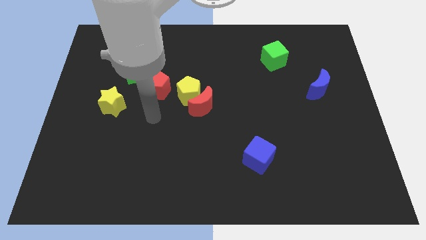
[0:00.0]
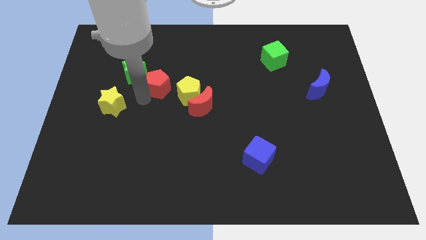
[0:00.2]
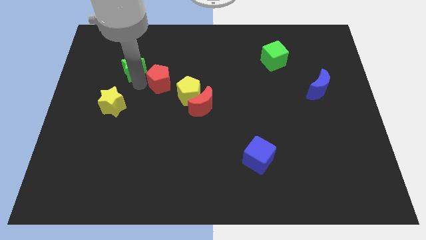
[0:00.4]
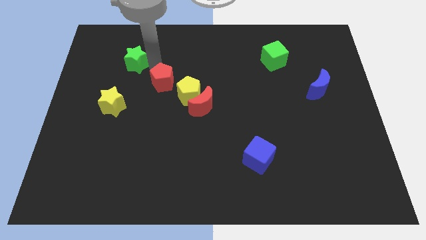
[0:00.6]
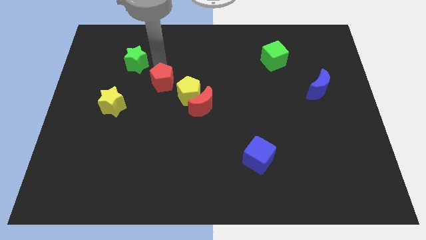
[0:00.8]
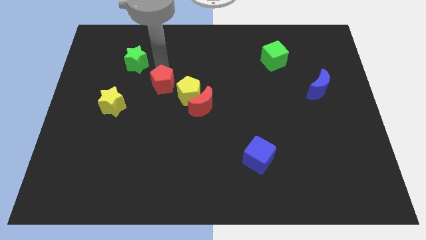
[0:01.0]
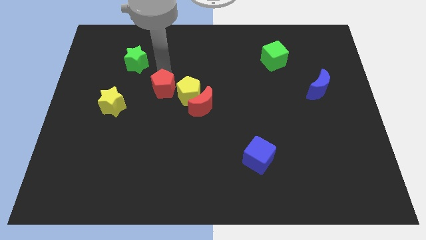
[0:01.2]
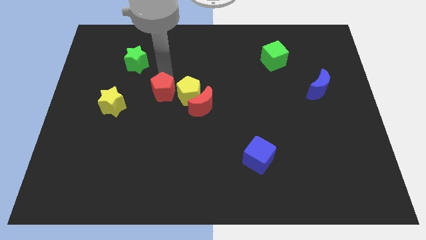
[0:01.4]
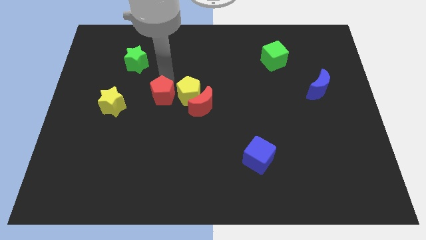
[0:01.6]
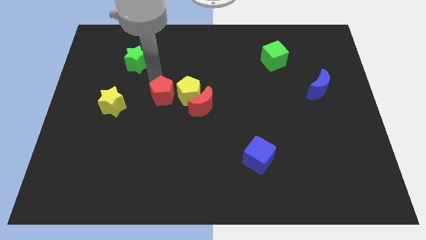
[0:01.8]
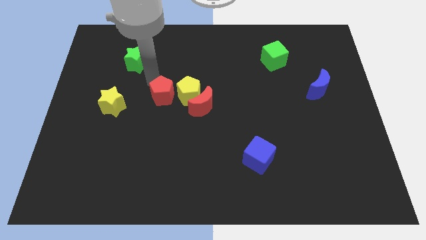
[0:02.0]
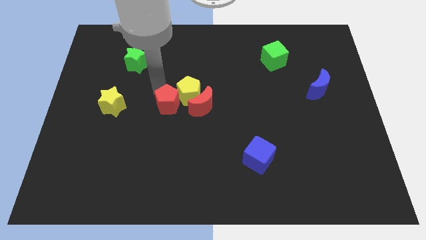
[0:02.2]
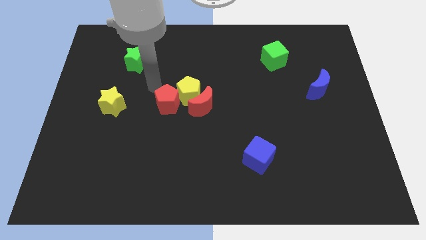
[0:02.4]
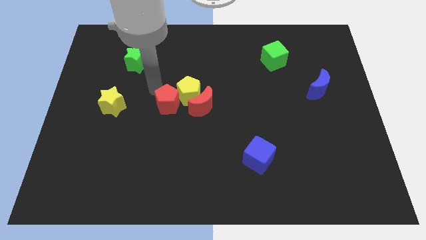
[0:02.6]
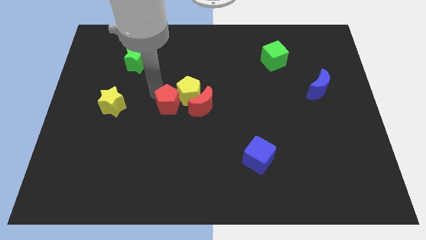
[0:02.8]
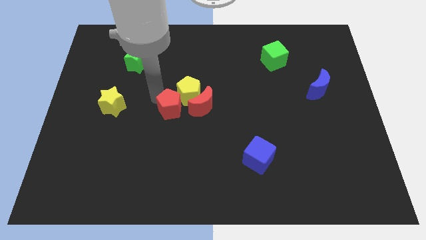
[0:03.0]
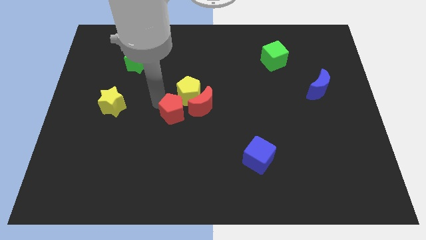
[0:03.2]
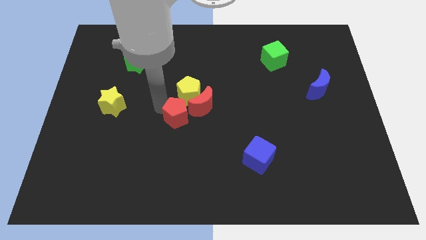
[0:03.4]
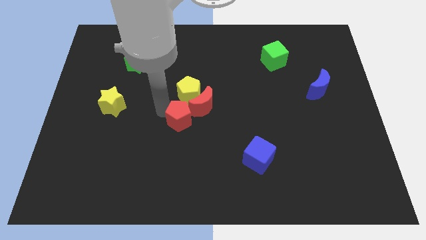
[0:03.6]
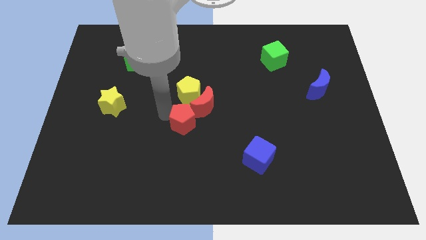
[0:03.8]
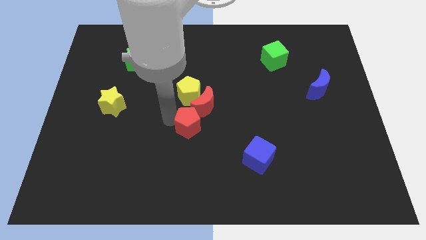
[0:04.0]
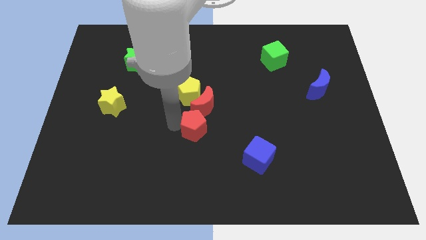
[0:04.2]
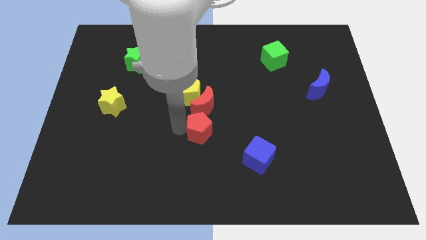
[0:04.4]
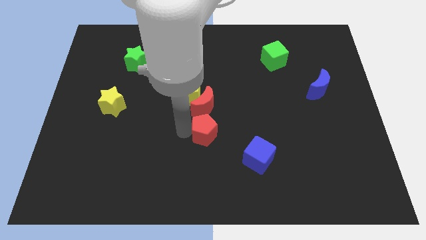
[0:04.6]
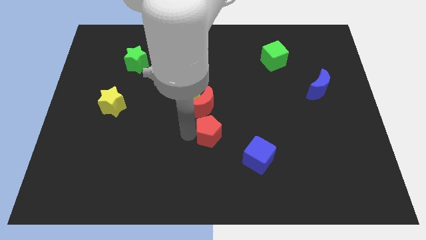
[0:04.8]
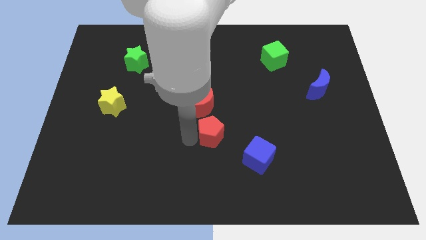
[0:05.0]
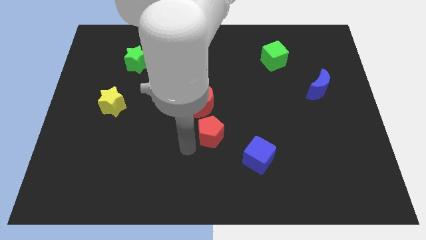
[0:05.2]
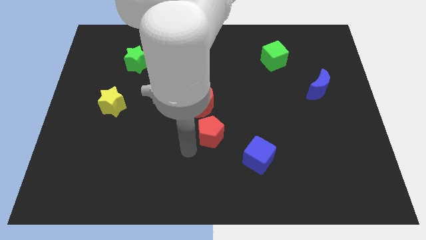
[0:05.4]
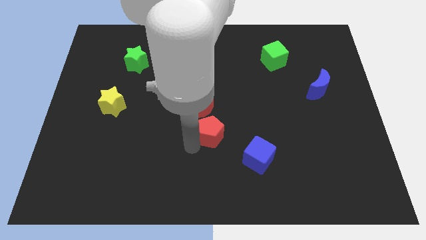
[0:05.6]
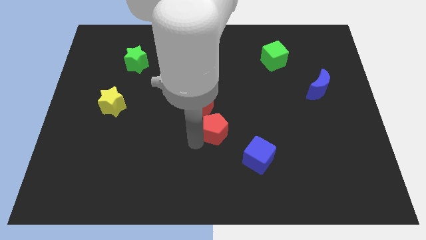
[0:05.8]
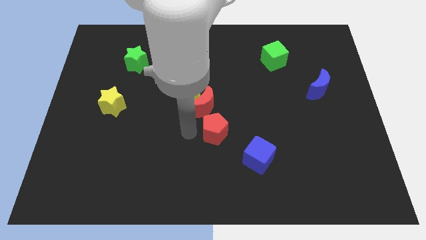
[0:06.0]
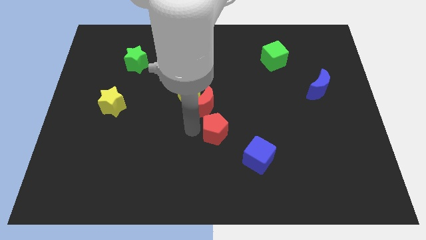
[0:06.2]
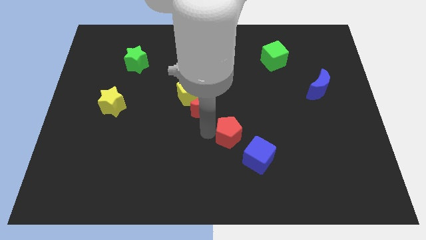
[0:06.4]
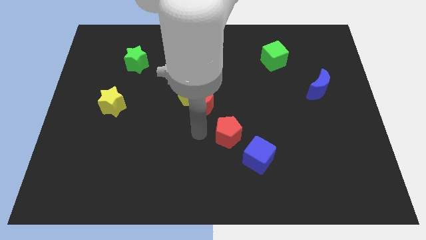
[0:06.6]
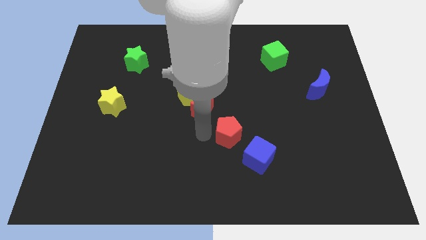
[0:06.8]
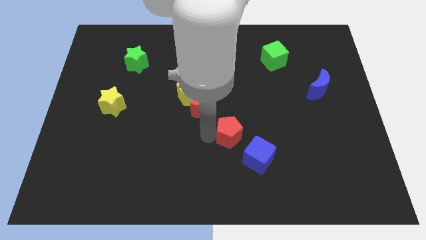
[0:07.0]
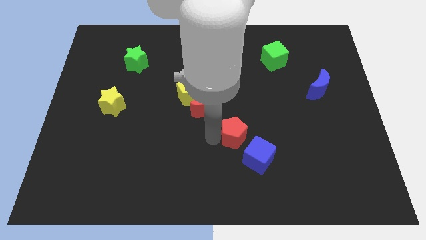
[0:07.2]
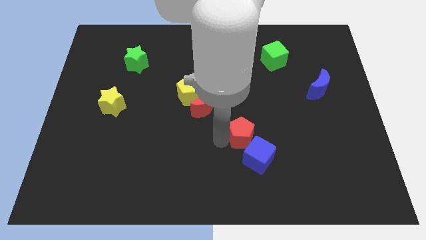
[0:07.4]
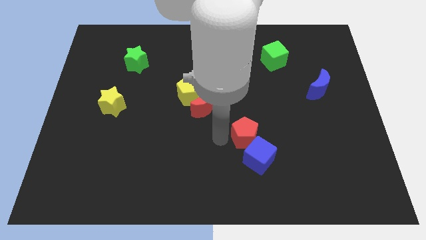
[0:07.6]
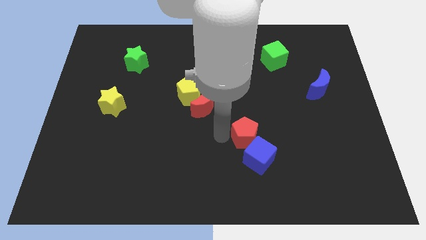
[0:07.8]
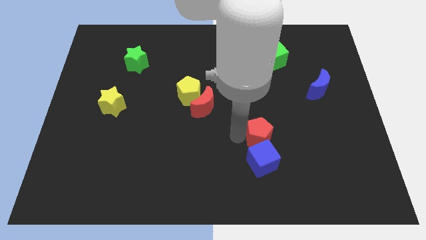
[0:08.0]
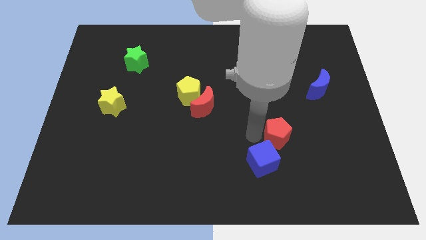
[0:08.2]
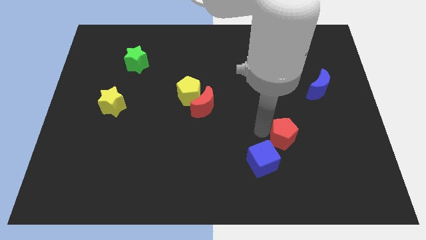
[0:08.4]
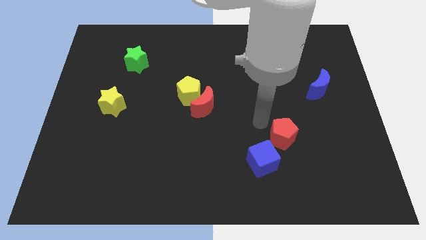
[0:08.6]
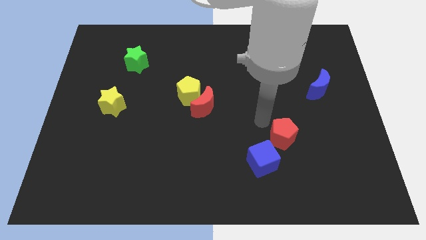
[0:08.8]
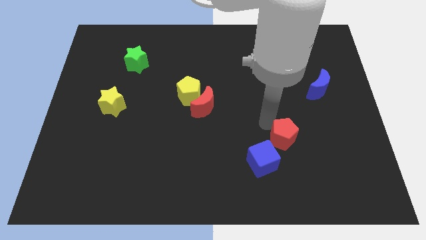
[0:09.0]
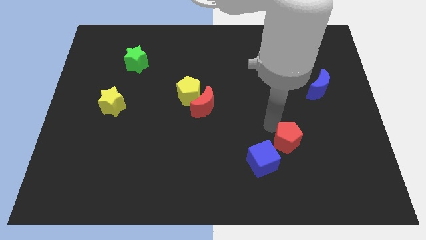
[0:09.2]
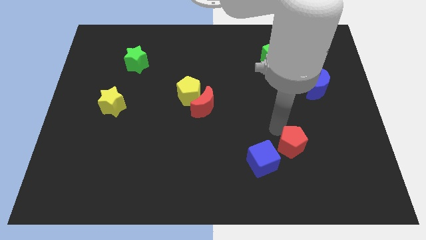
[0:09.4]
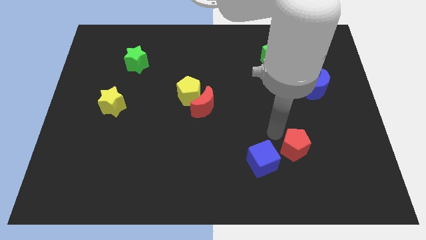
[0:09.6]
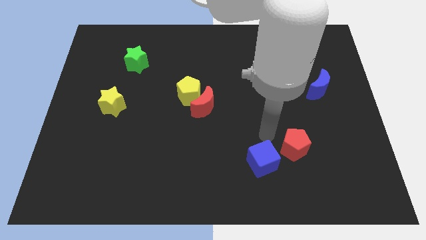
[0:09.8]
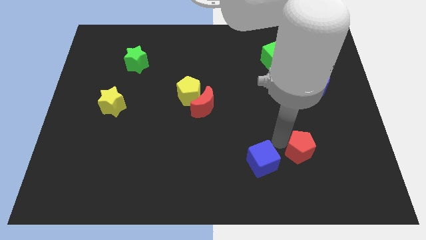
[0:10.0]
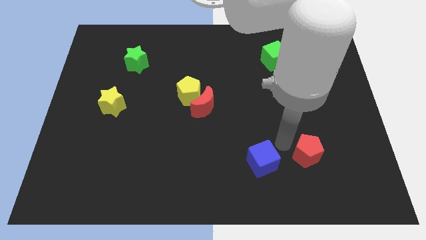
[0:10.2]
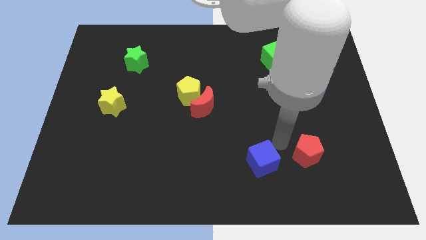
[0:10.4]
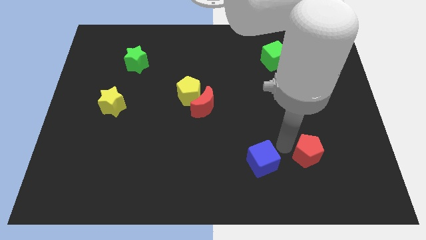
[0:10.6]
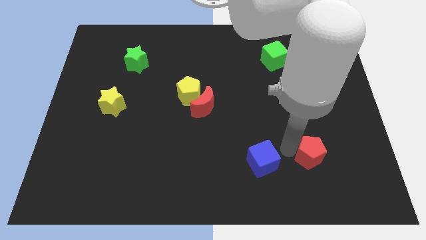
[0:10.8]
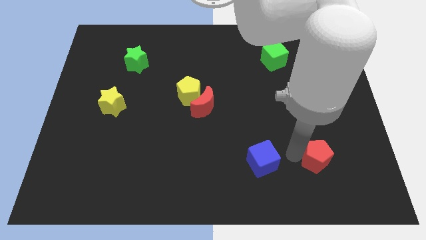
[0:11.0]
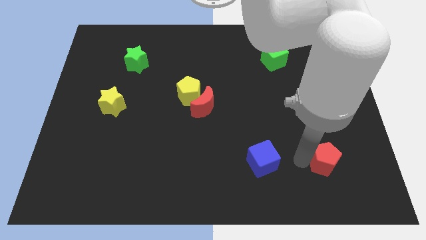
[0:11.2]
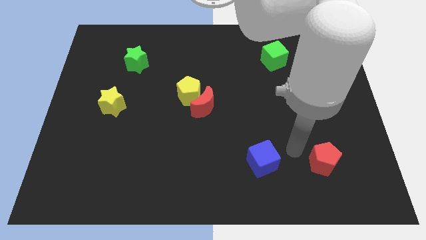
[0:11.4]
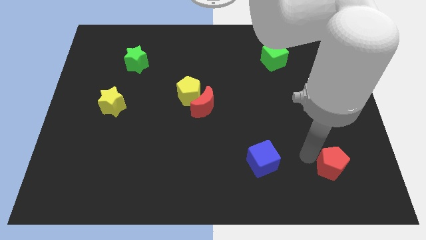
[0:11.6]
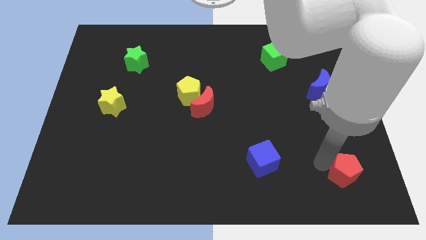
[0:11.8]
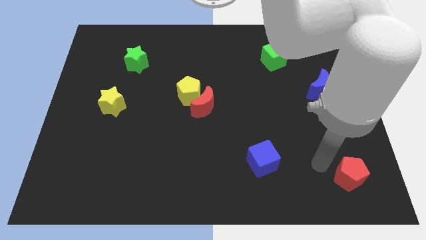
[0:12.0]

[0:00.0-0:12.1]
slide the red pentagon to the lower right corner
